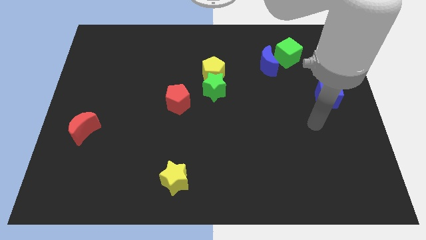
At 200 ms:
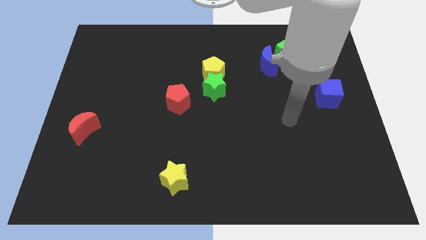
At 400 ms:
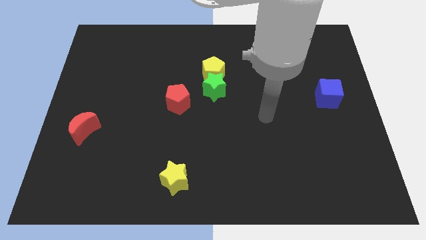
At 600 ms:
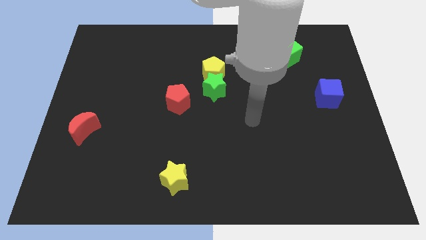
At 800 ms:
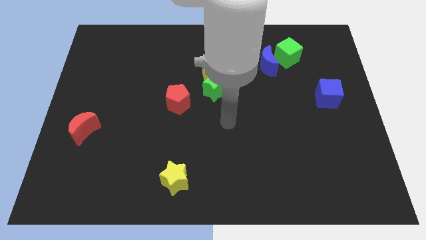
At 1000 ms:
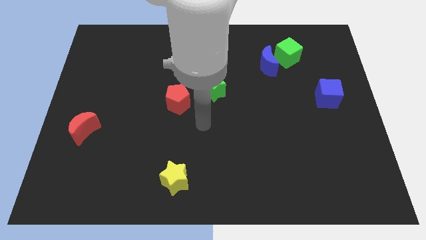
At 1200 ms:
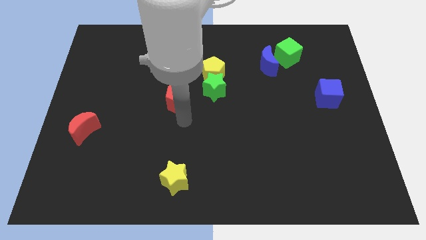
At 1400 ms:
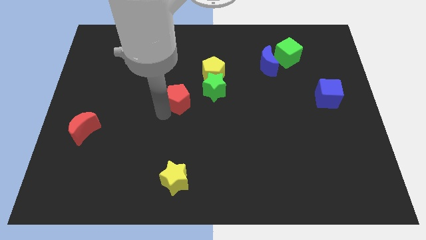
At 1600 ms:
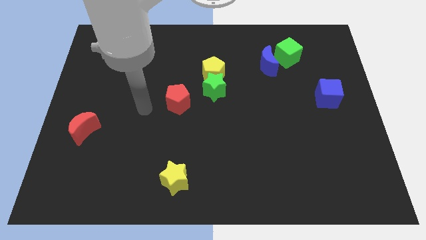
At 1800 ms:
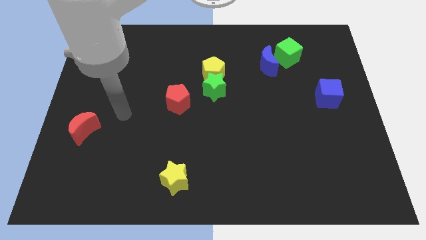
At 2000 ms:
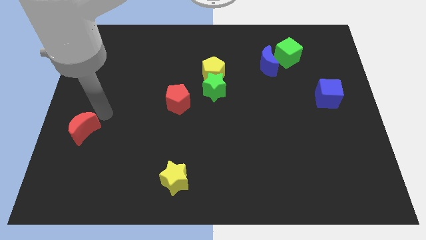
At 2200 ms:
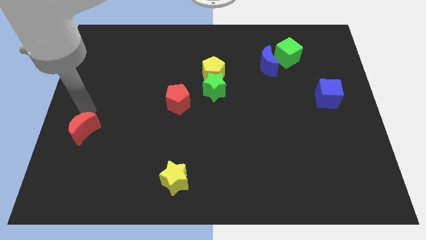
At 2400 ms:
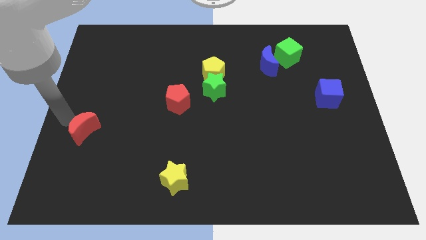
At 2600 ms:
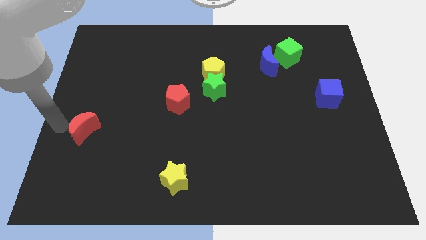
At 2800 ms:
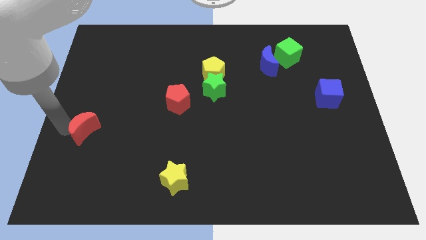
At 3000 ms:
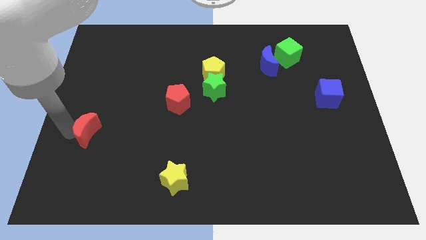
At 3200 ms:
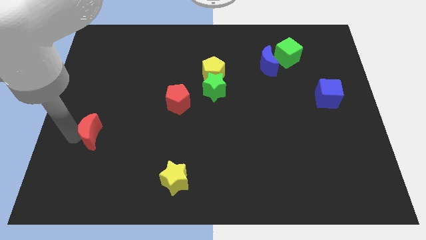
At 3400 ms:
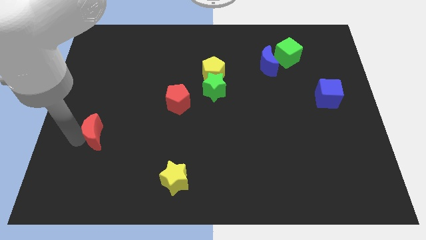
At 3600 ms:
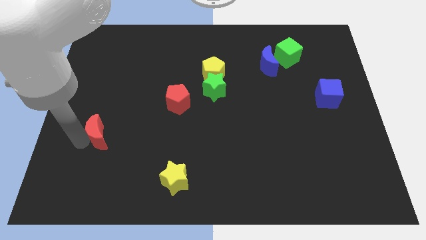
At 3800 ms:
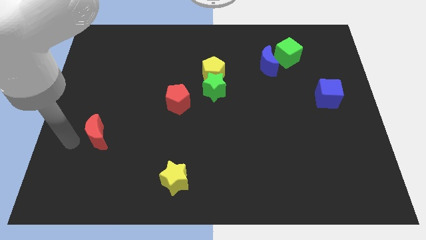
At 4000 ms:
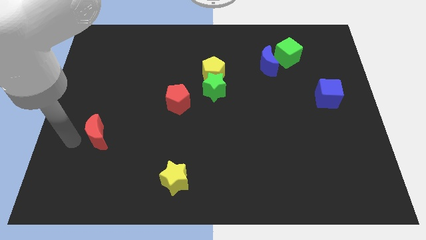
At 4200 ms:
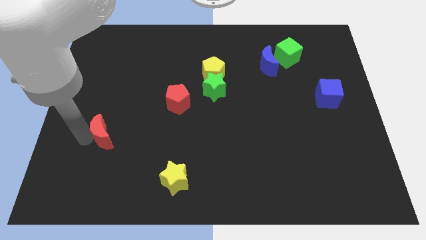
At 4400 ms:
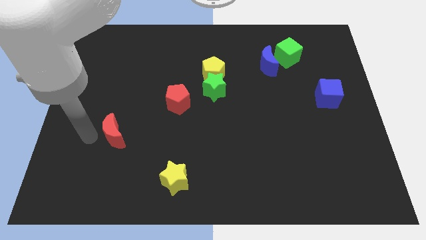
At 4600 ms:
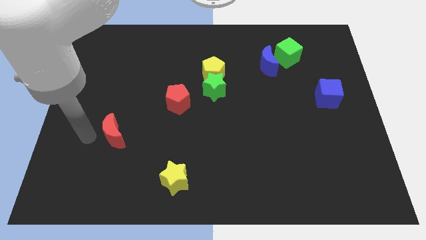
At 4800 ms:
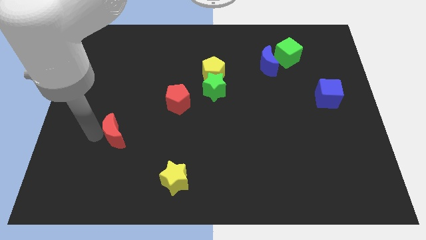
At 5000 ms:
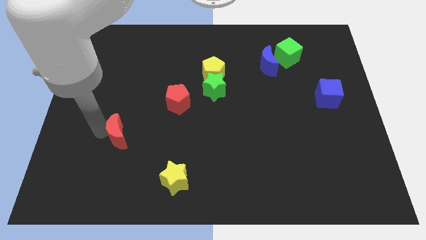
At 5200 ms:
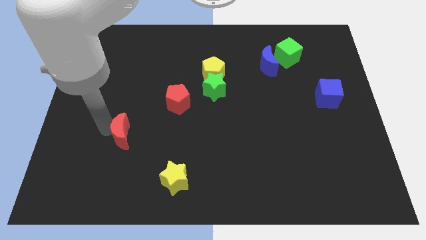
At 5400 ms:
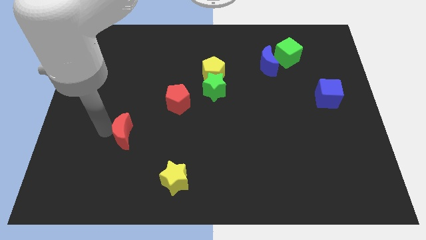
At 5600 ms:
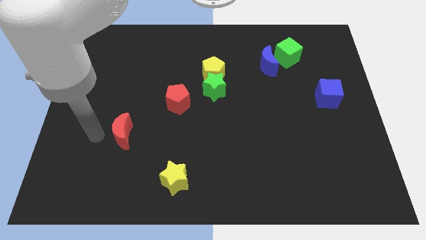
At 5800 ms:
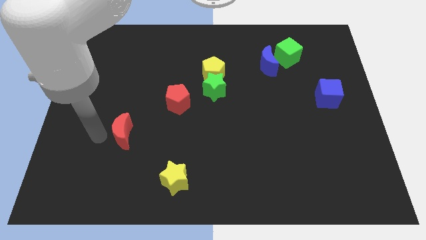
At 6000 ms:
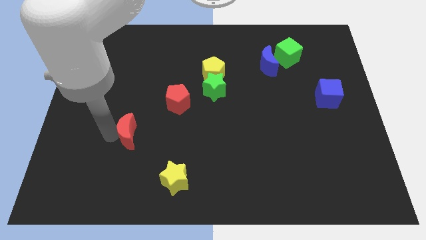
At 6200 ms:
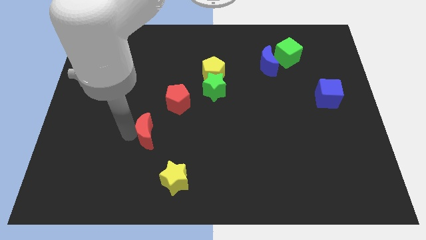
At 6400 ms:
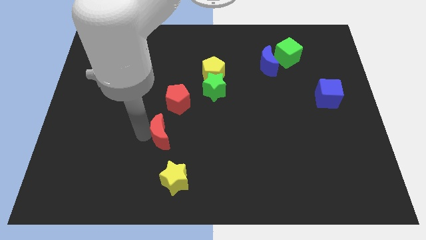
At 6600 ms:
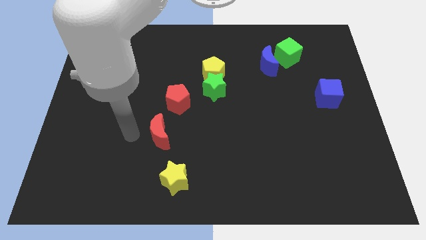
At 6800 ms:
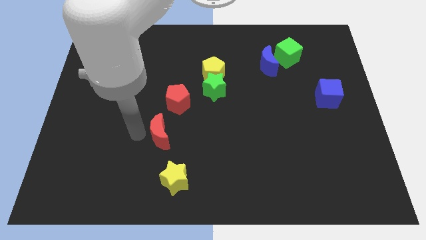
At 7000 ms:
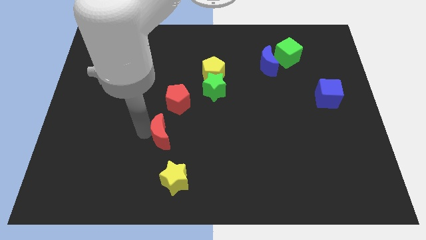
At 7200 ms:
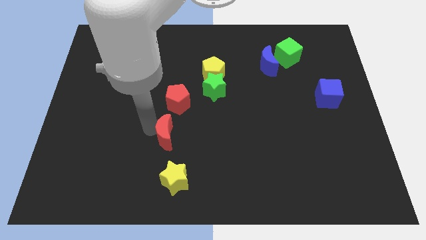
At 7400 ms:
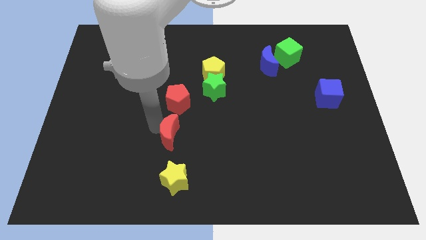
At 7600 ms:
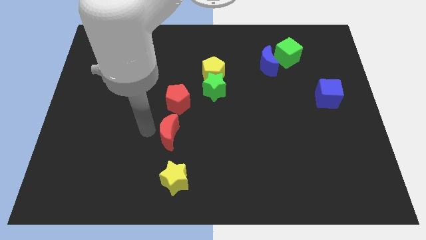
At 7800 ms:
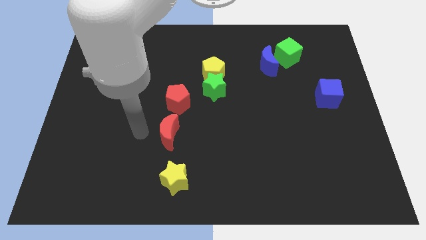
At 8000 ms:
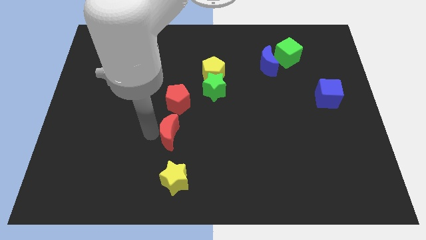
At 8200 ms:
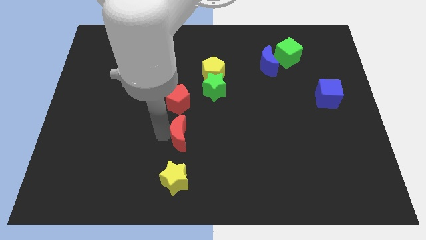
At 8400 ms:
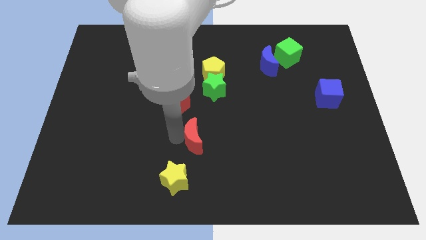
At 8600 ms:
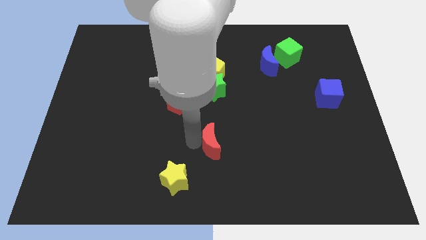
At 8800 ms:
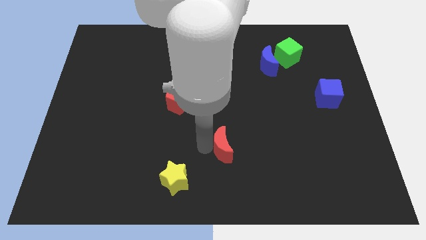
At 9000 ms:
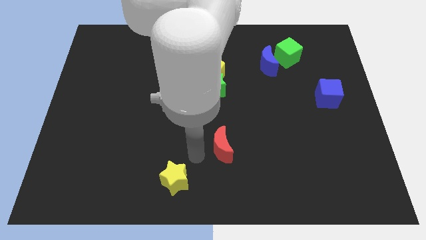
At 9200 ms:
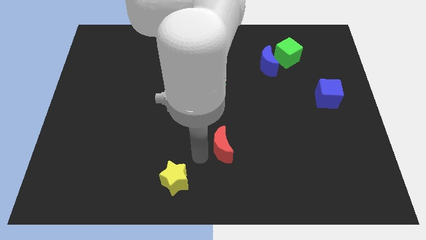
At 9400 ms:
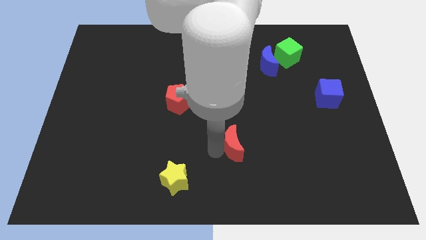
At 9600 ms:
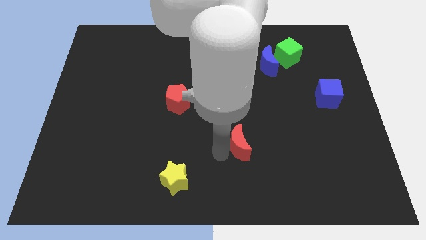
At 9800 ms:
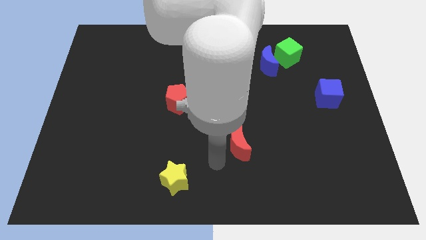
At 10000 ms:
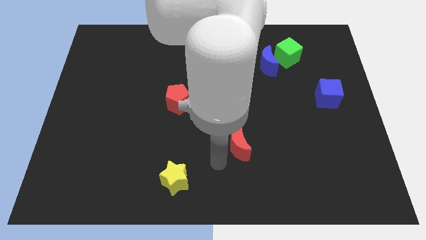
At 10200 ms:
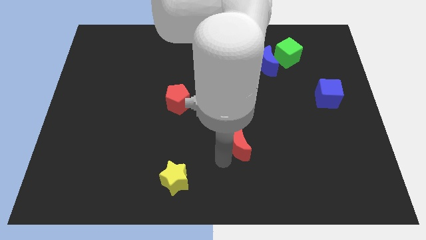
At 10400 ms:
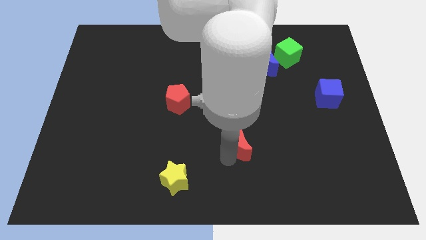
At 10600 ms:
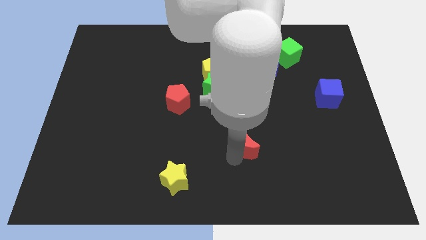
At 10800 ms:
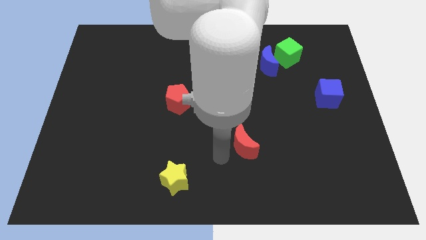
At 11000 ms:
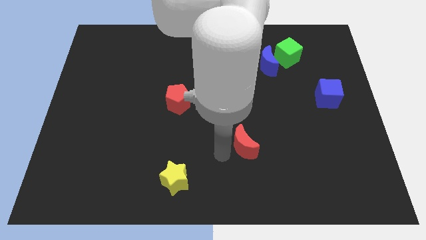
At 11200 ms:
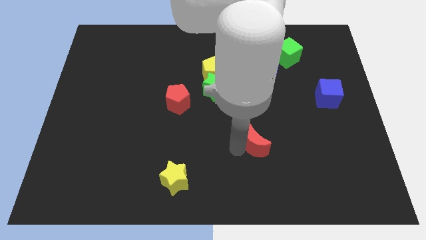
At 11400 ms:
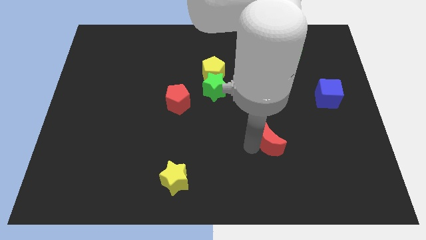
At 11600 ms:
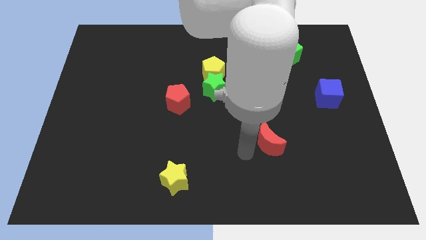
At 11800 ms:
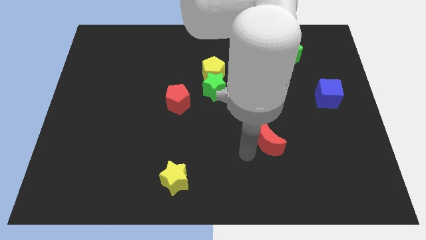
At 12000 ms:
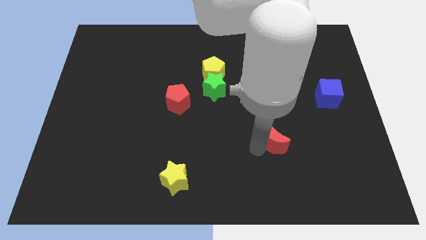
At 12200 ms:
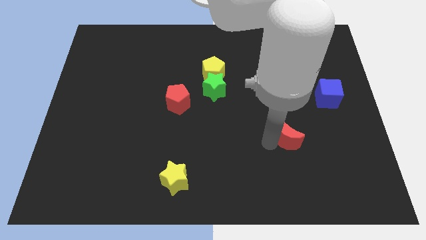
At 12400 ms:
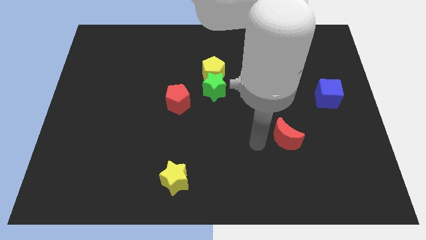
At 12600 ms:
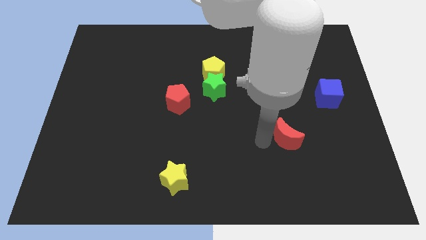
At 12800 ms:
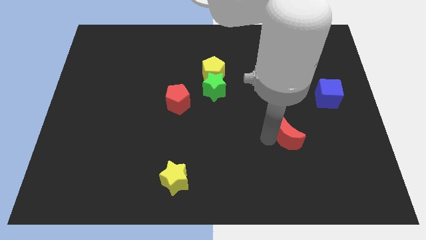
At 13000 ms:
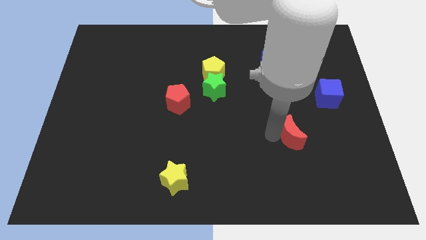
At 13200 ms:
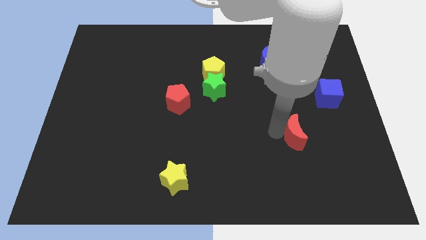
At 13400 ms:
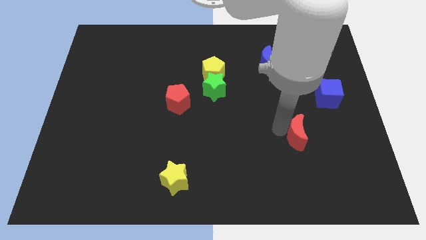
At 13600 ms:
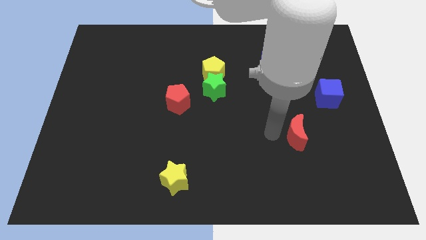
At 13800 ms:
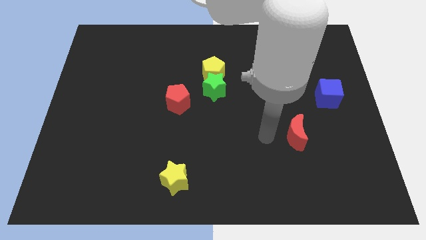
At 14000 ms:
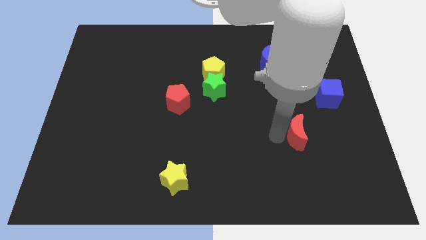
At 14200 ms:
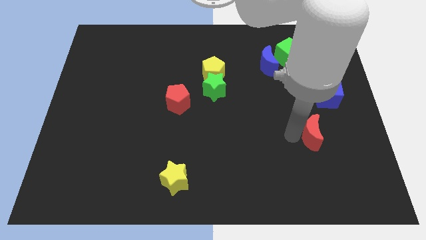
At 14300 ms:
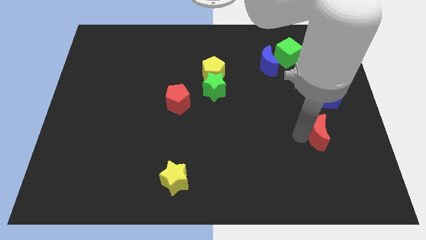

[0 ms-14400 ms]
slide the red moon below the blue cube
